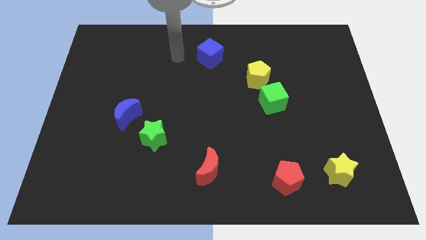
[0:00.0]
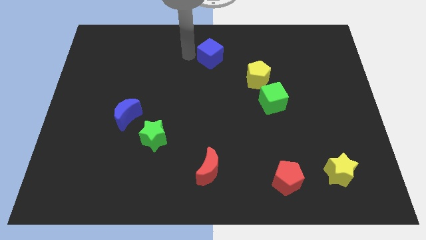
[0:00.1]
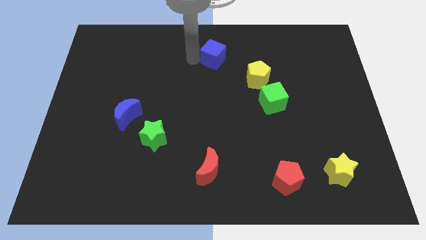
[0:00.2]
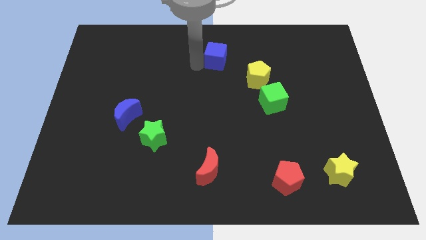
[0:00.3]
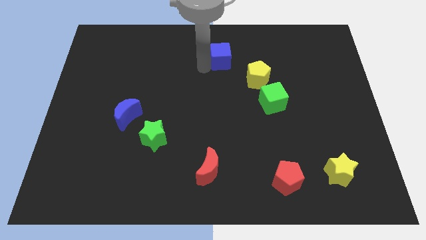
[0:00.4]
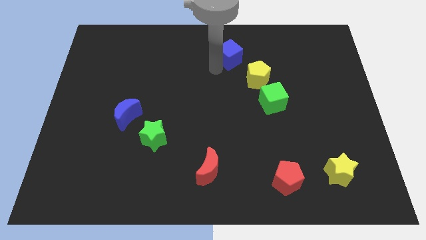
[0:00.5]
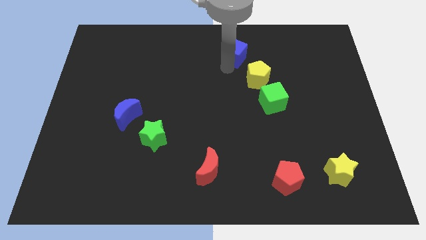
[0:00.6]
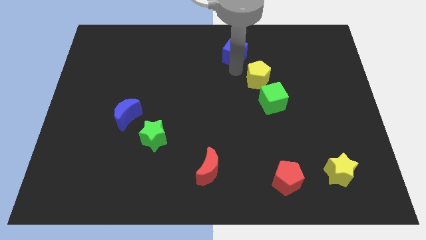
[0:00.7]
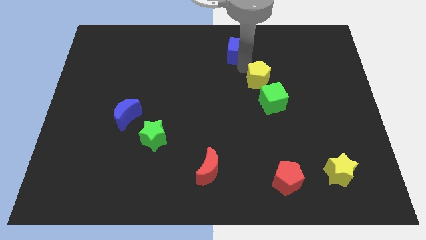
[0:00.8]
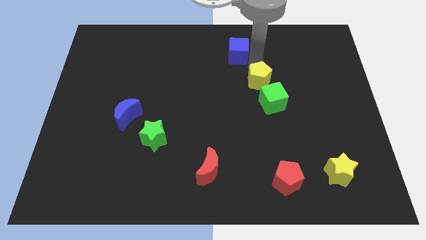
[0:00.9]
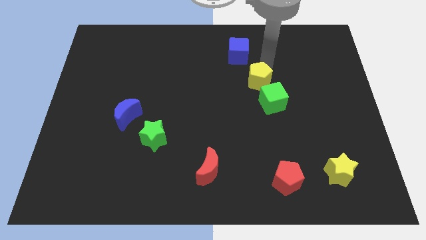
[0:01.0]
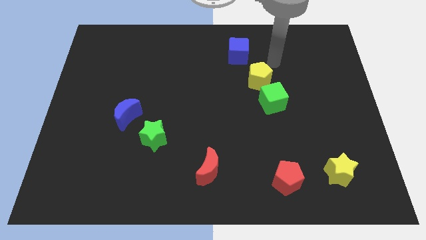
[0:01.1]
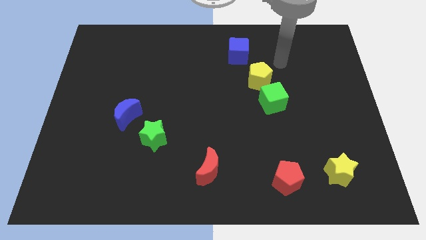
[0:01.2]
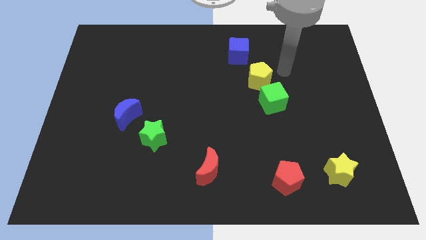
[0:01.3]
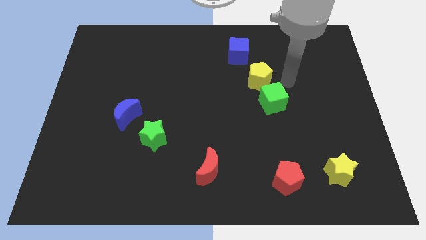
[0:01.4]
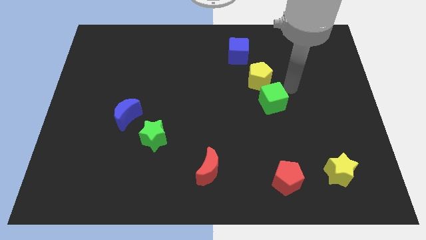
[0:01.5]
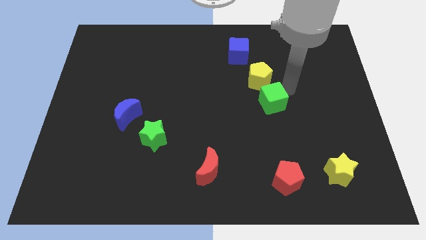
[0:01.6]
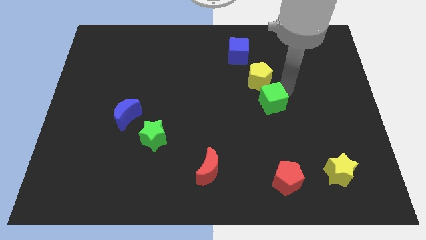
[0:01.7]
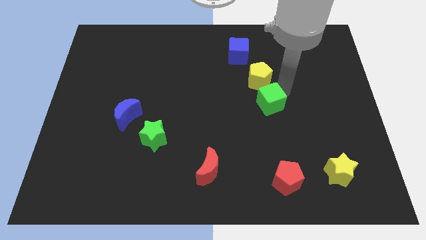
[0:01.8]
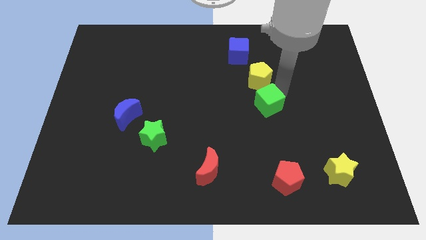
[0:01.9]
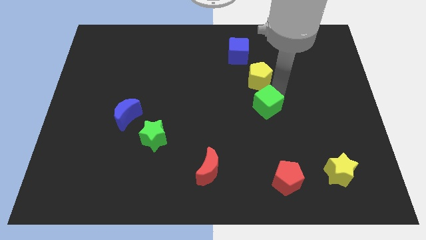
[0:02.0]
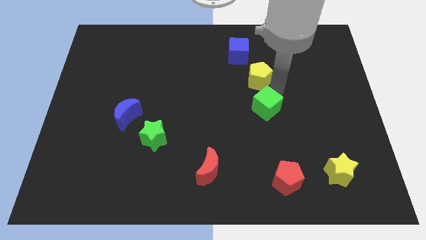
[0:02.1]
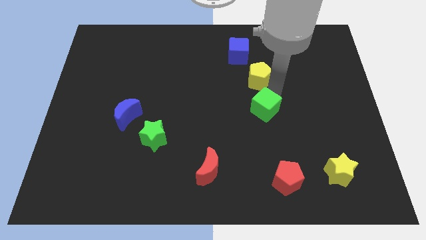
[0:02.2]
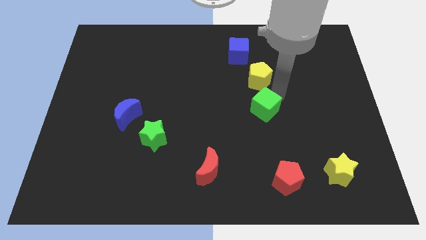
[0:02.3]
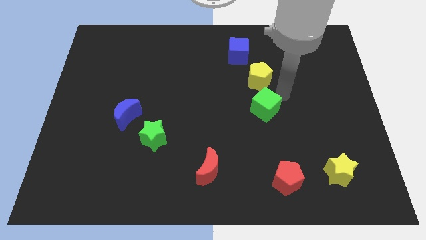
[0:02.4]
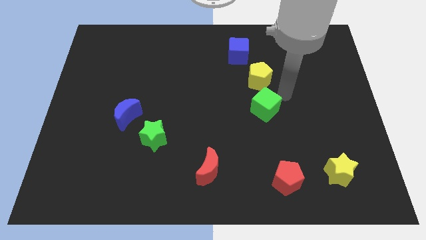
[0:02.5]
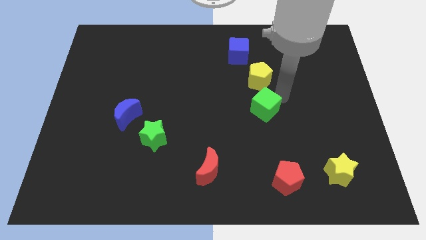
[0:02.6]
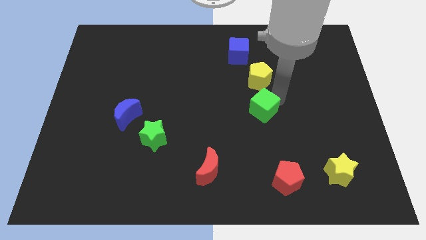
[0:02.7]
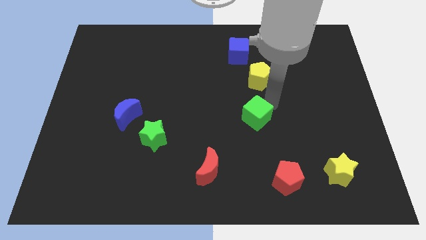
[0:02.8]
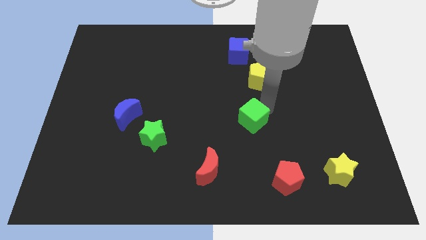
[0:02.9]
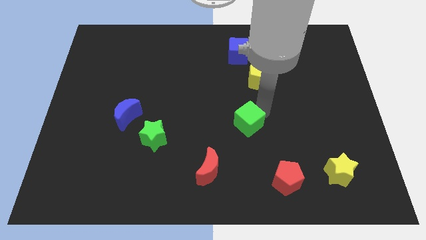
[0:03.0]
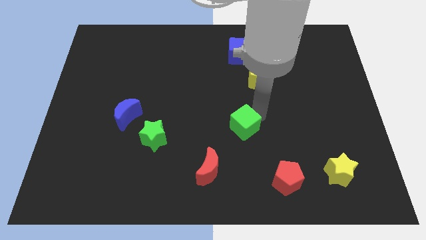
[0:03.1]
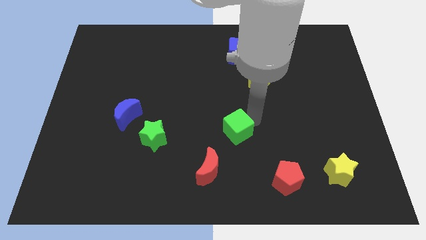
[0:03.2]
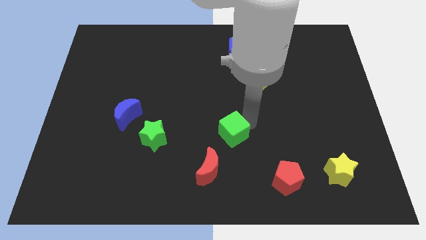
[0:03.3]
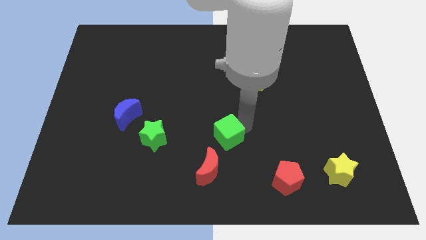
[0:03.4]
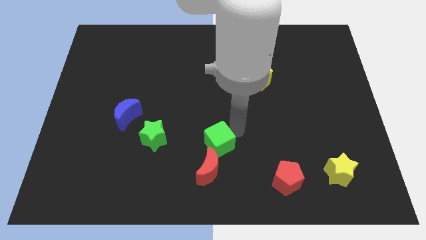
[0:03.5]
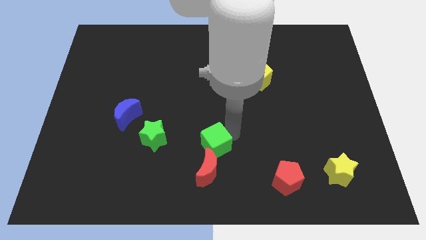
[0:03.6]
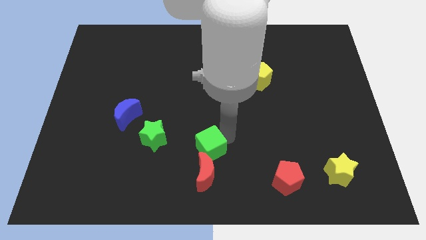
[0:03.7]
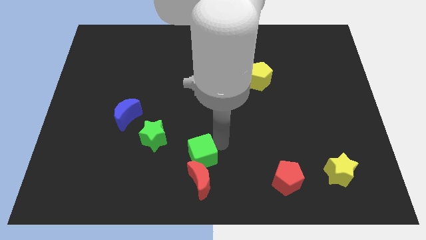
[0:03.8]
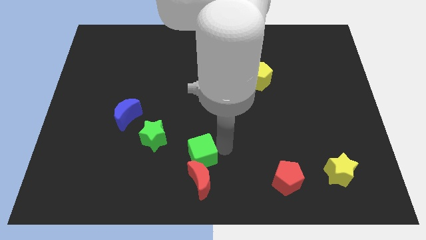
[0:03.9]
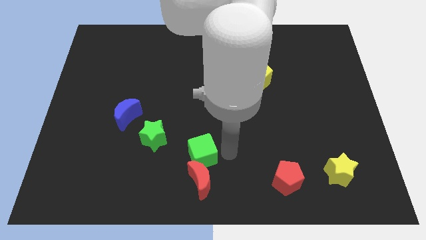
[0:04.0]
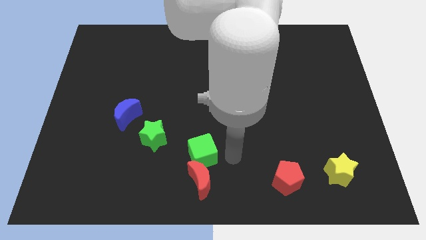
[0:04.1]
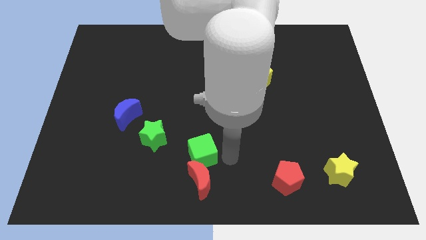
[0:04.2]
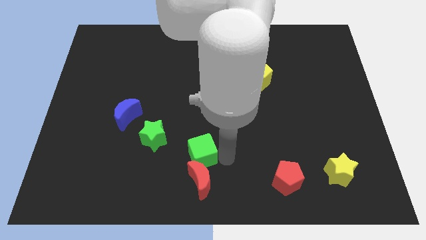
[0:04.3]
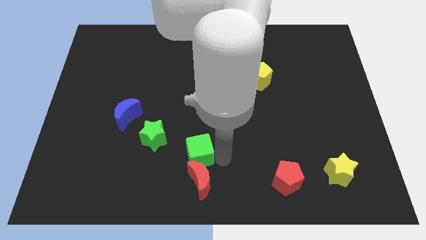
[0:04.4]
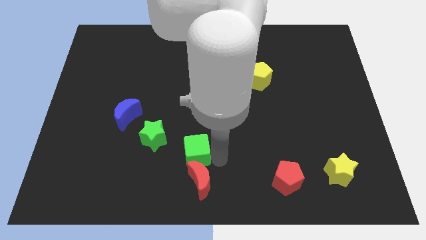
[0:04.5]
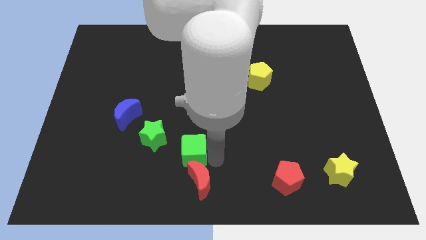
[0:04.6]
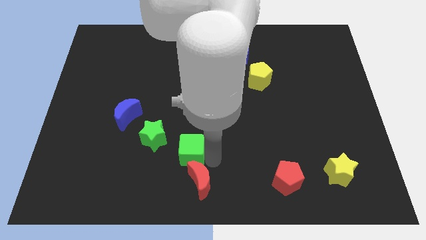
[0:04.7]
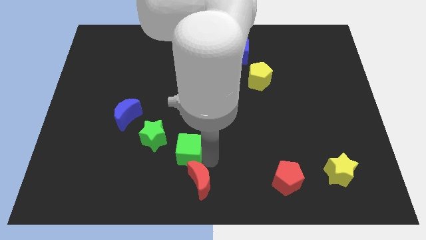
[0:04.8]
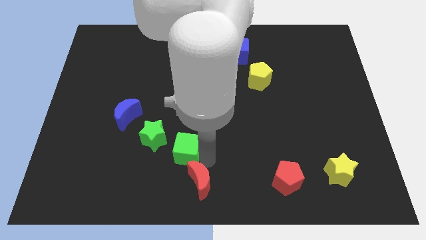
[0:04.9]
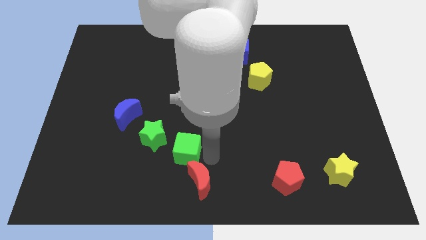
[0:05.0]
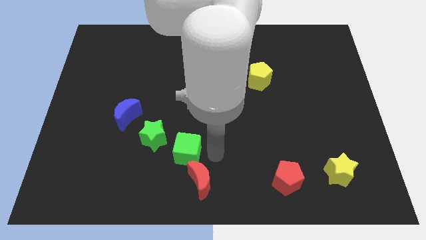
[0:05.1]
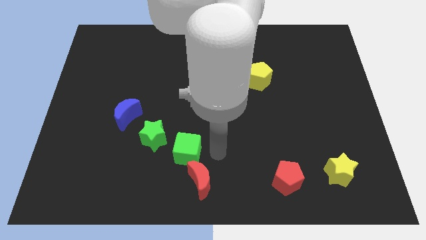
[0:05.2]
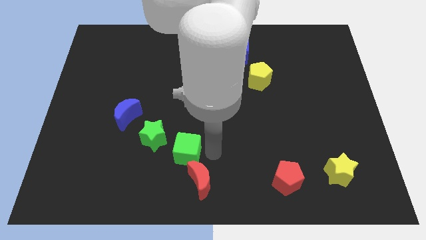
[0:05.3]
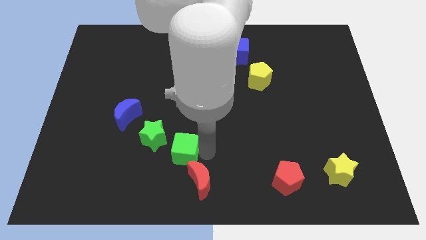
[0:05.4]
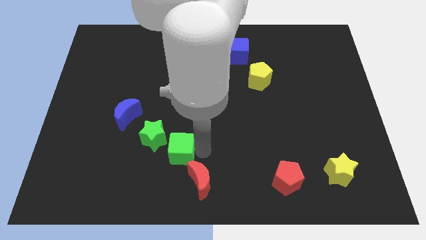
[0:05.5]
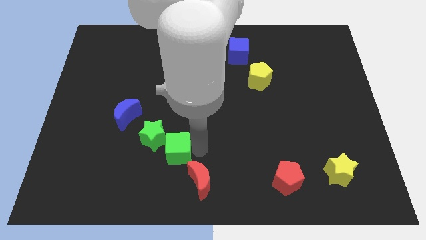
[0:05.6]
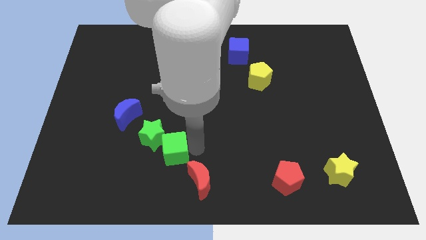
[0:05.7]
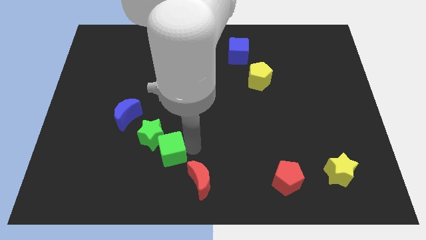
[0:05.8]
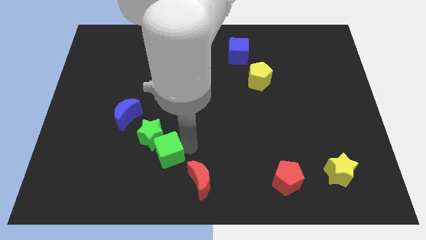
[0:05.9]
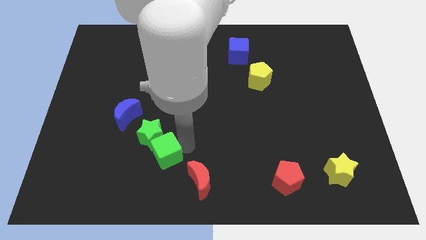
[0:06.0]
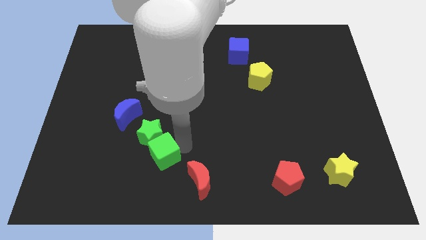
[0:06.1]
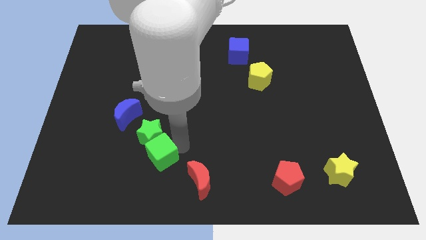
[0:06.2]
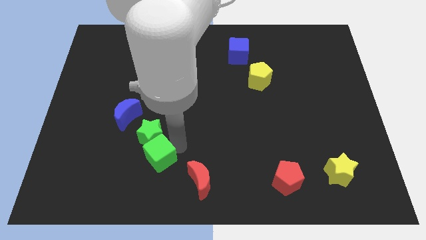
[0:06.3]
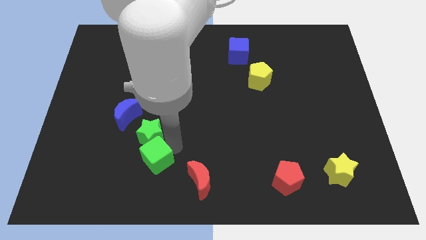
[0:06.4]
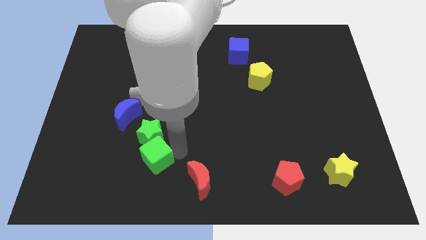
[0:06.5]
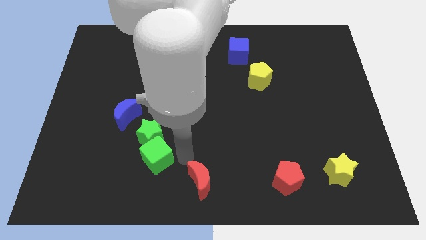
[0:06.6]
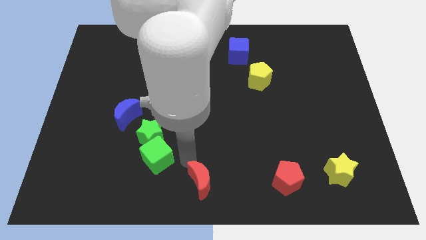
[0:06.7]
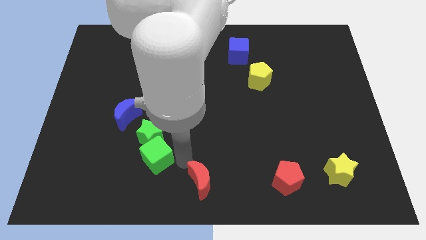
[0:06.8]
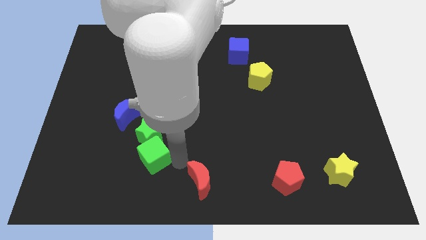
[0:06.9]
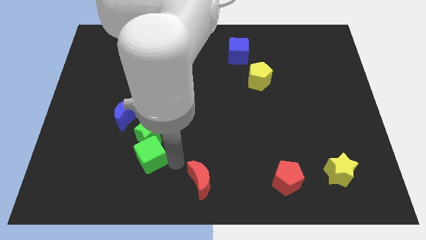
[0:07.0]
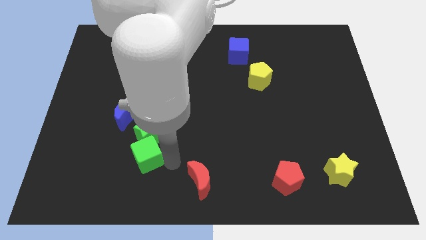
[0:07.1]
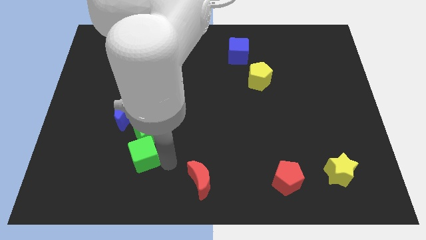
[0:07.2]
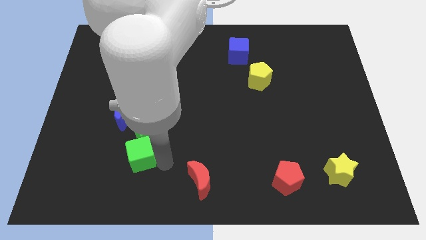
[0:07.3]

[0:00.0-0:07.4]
push the green cube to the bottom side of the blue moon
